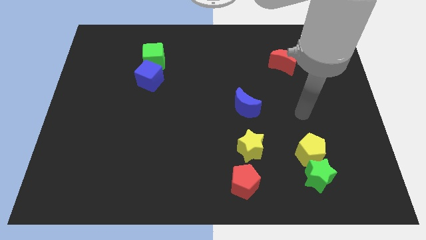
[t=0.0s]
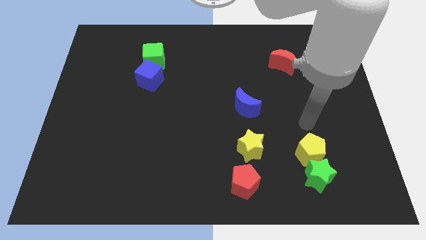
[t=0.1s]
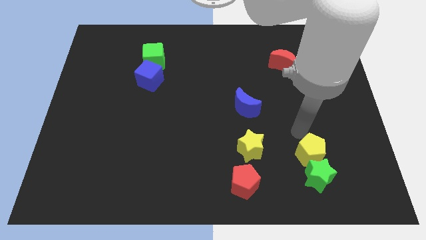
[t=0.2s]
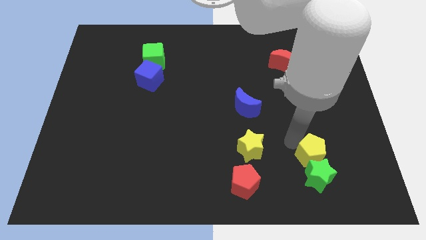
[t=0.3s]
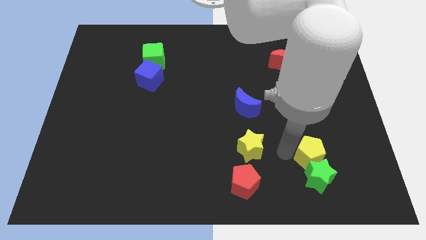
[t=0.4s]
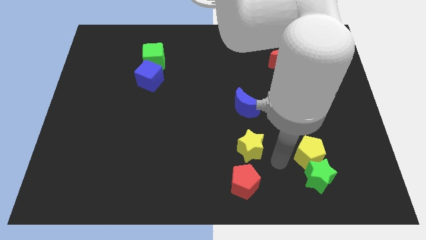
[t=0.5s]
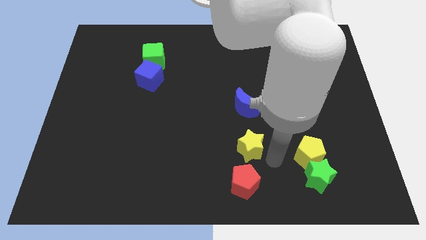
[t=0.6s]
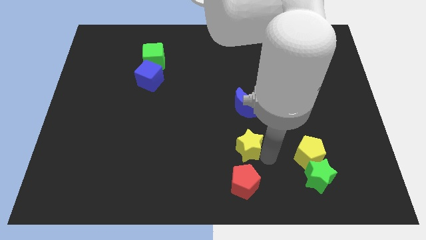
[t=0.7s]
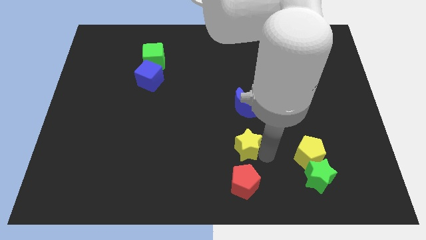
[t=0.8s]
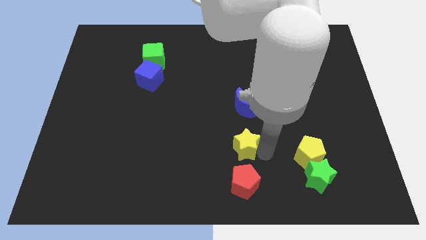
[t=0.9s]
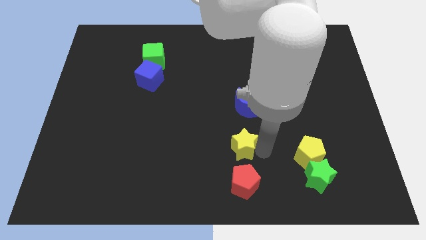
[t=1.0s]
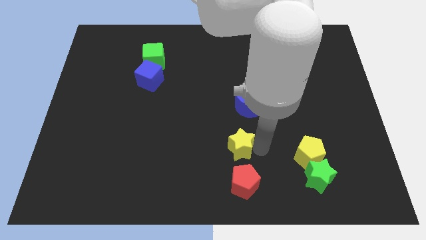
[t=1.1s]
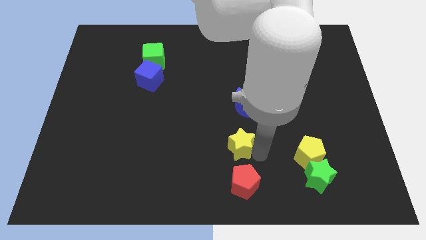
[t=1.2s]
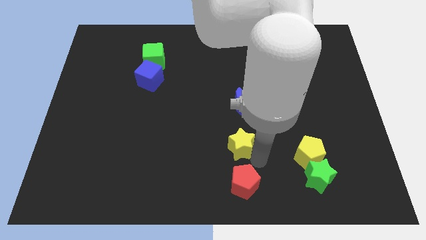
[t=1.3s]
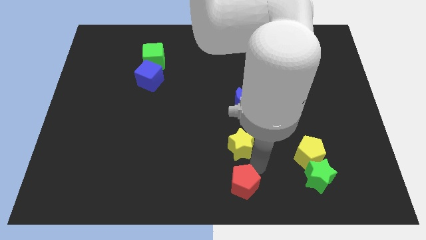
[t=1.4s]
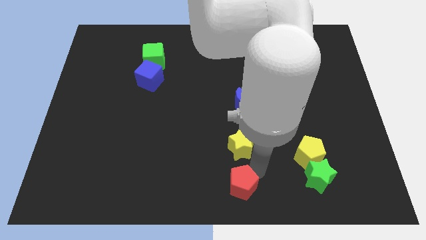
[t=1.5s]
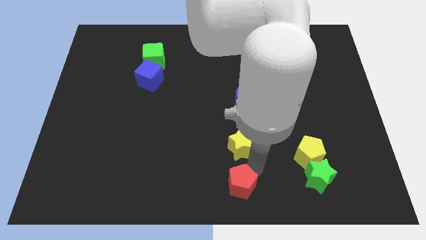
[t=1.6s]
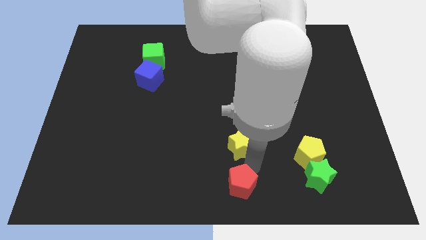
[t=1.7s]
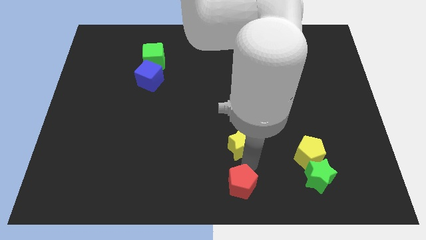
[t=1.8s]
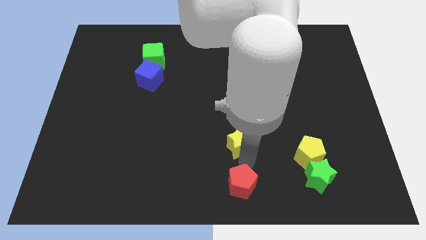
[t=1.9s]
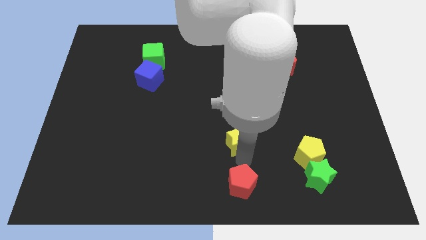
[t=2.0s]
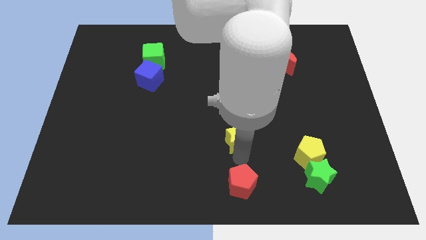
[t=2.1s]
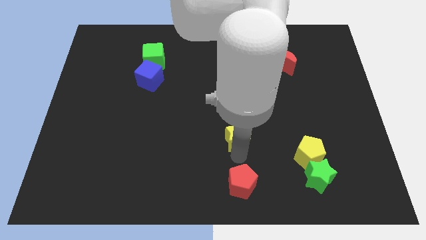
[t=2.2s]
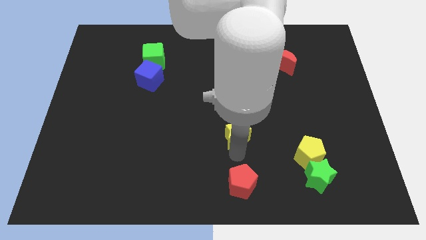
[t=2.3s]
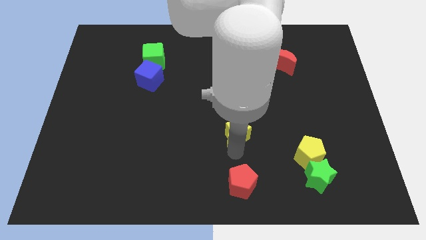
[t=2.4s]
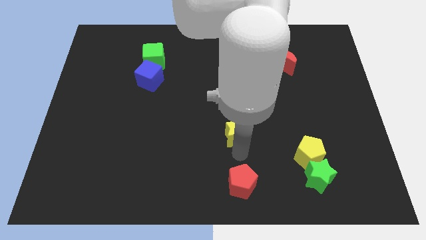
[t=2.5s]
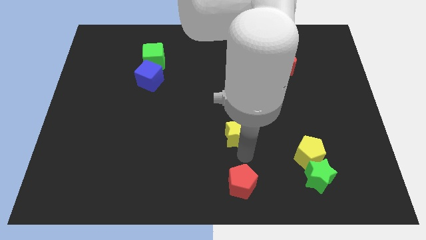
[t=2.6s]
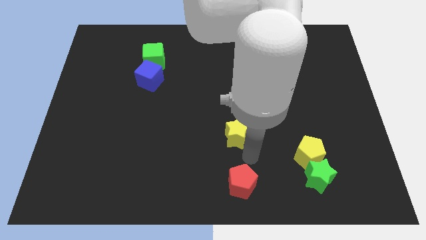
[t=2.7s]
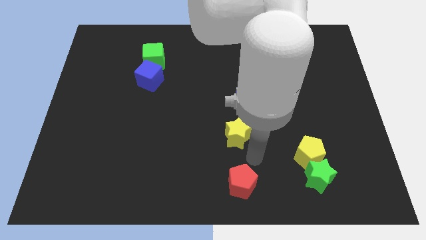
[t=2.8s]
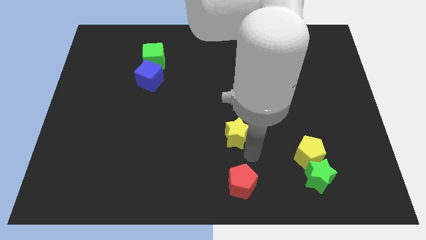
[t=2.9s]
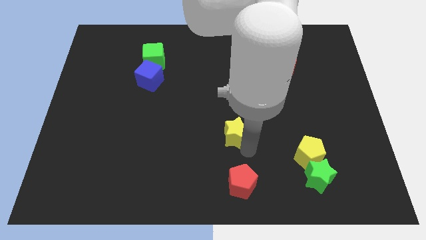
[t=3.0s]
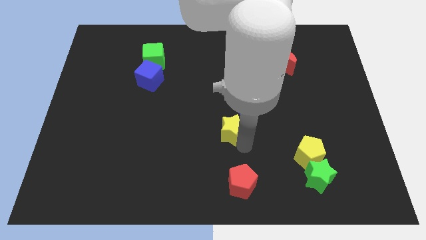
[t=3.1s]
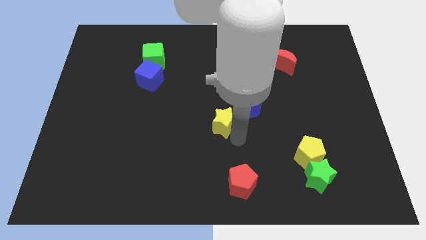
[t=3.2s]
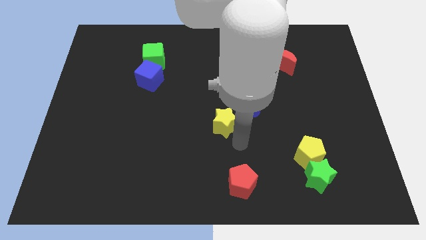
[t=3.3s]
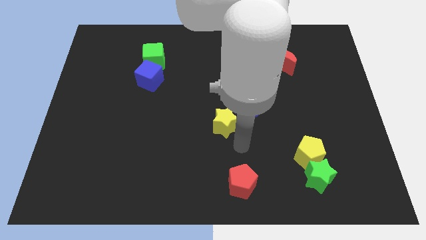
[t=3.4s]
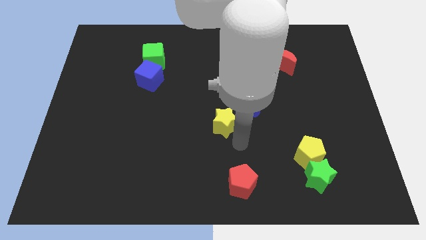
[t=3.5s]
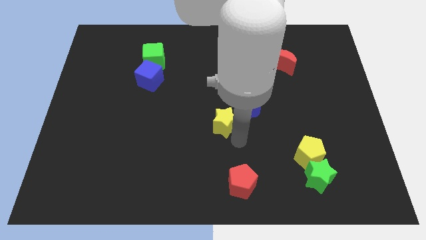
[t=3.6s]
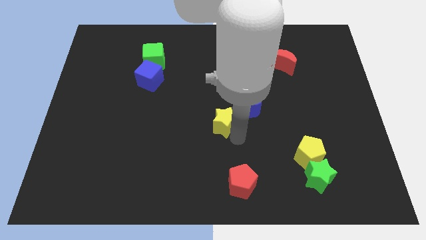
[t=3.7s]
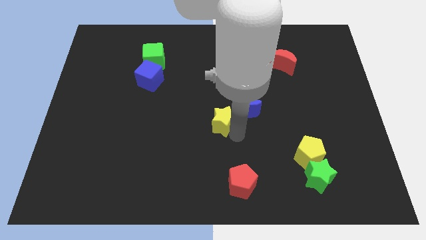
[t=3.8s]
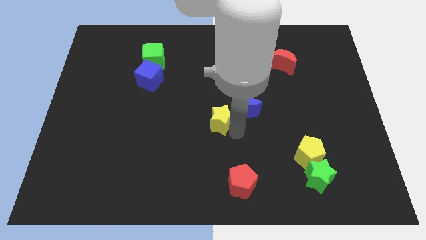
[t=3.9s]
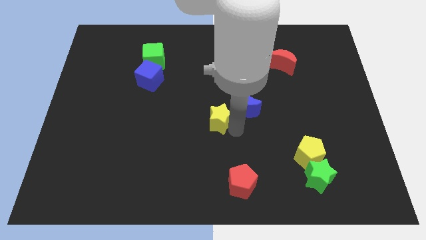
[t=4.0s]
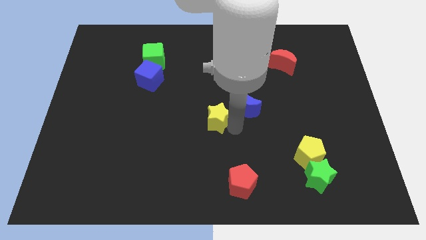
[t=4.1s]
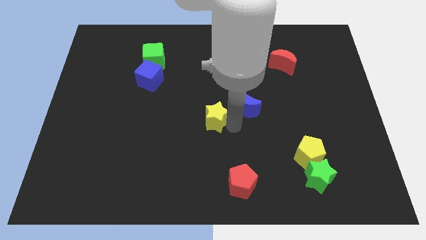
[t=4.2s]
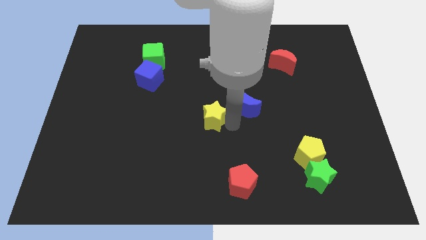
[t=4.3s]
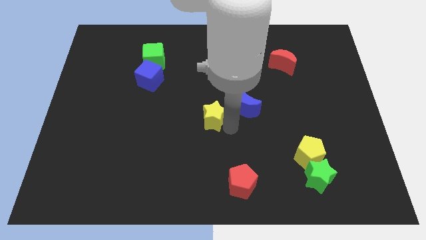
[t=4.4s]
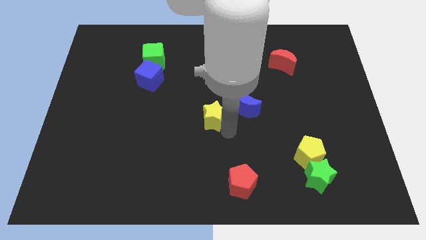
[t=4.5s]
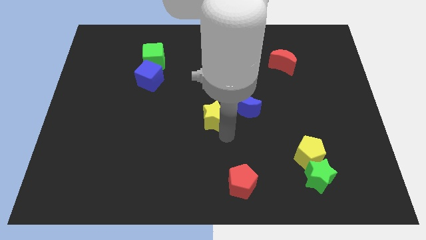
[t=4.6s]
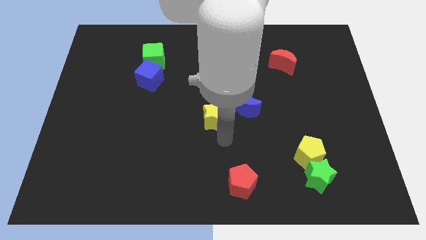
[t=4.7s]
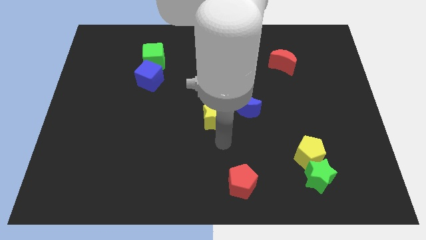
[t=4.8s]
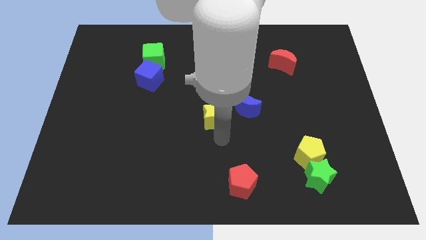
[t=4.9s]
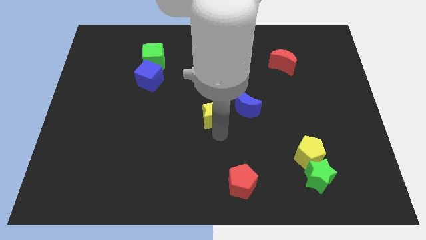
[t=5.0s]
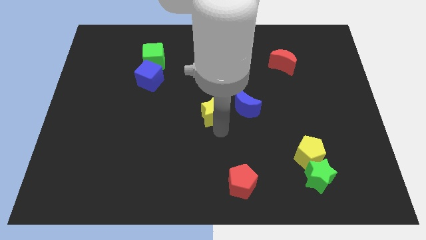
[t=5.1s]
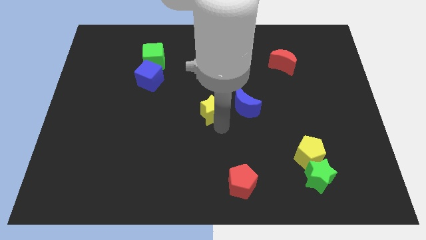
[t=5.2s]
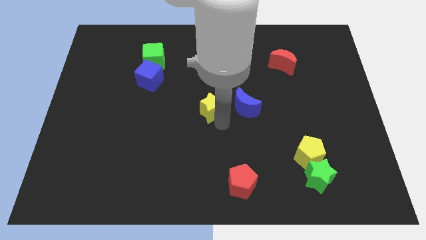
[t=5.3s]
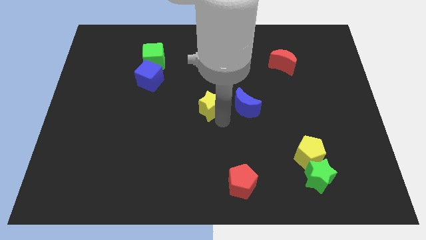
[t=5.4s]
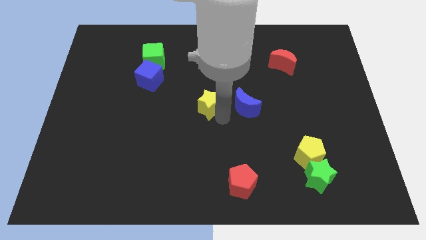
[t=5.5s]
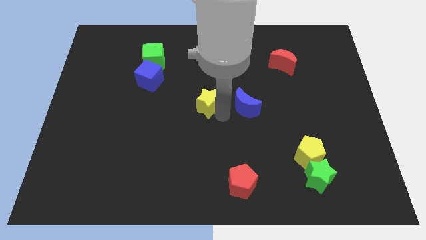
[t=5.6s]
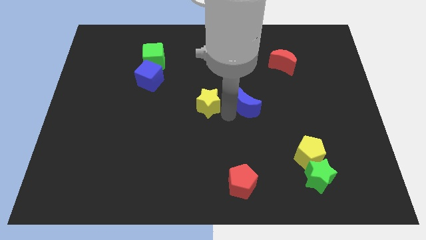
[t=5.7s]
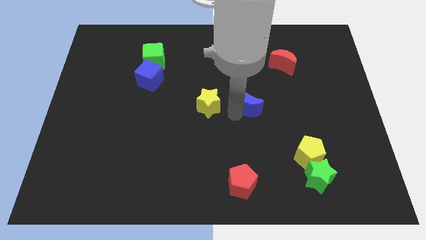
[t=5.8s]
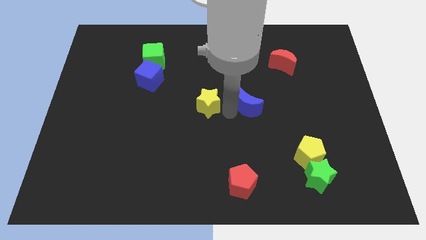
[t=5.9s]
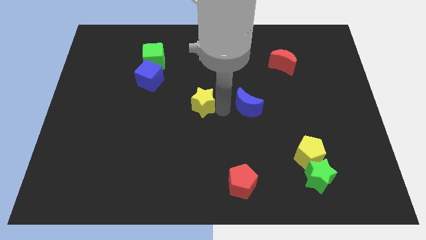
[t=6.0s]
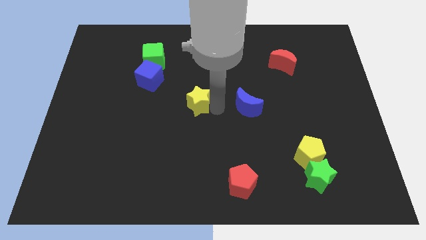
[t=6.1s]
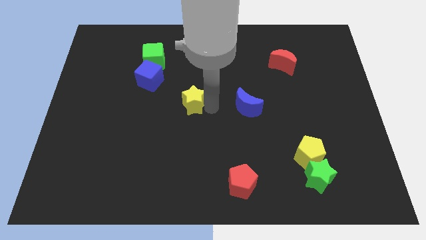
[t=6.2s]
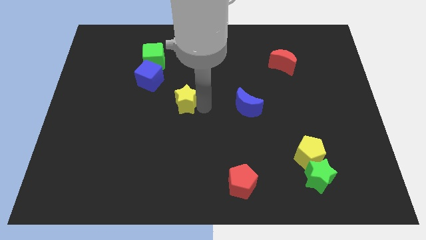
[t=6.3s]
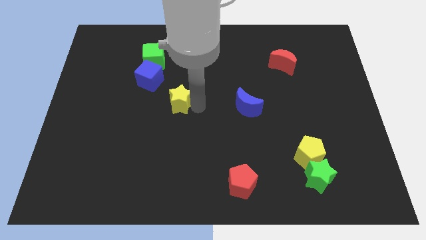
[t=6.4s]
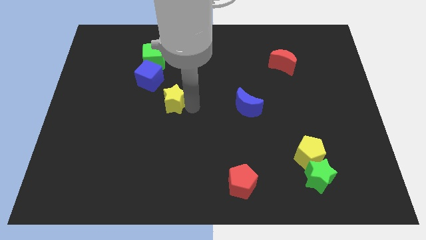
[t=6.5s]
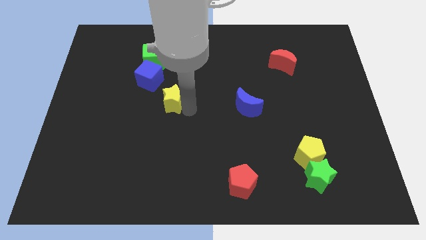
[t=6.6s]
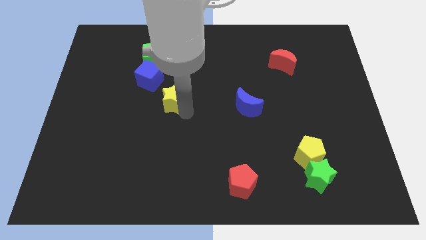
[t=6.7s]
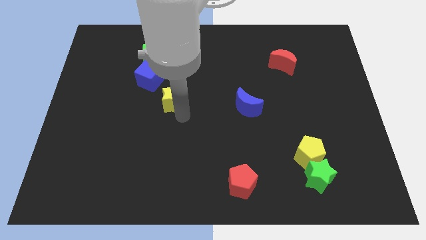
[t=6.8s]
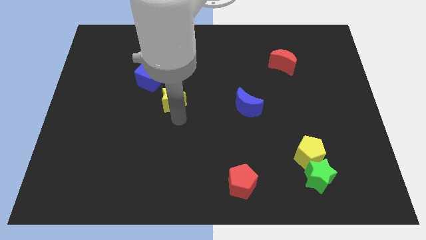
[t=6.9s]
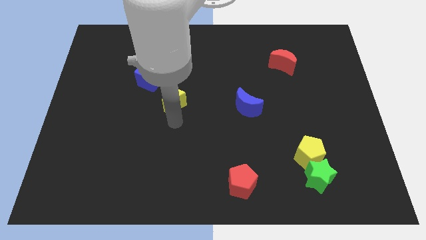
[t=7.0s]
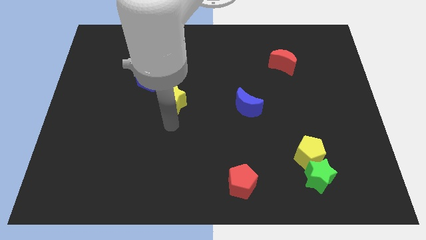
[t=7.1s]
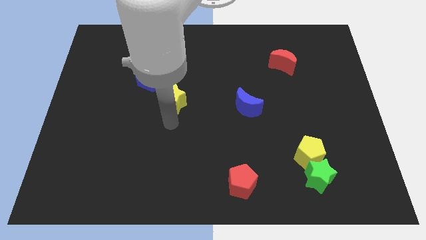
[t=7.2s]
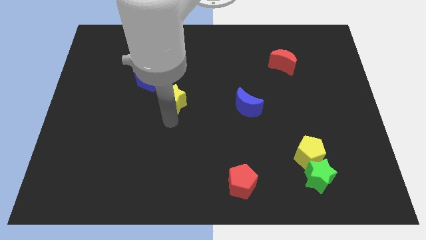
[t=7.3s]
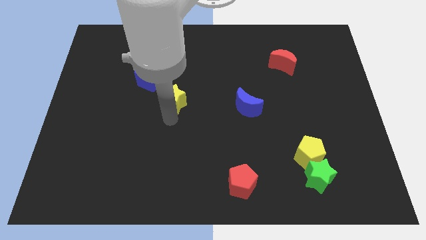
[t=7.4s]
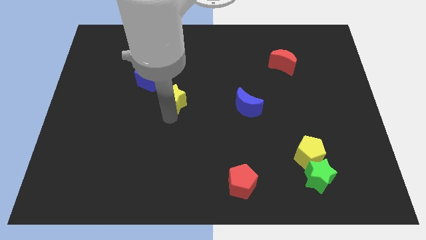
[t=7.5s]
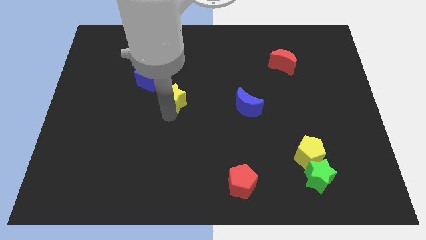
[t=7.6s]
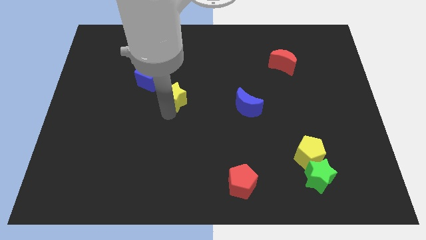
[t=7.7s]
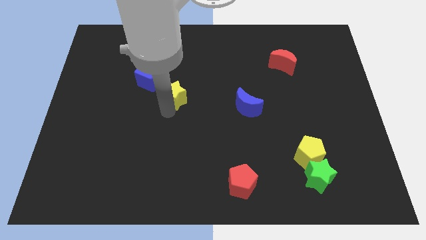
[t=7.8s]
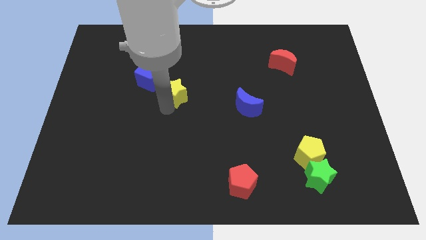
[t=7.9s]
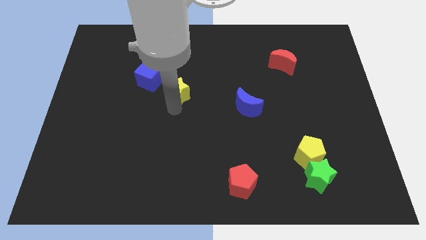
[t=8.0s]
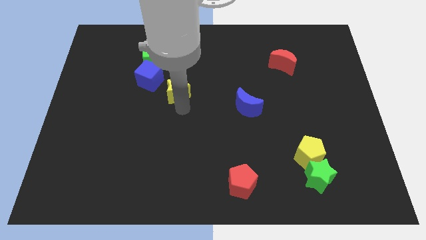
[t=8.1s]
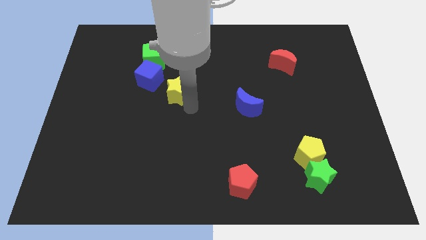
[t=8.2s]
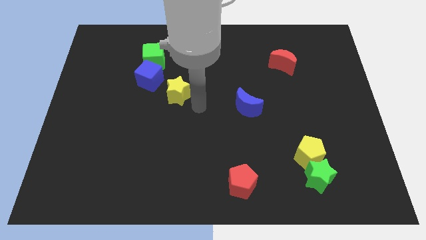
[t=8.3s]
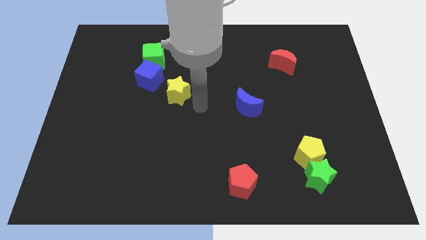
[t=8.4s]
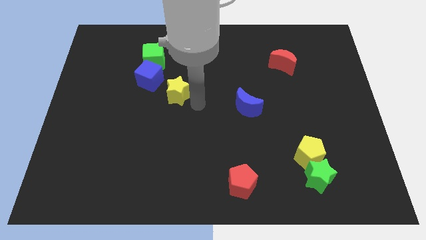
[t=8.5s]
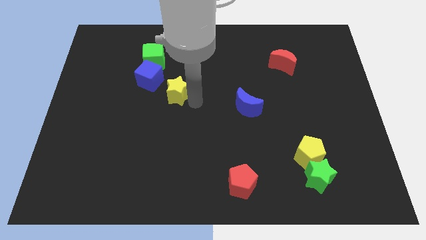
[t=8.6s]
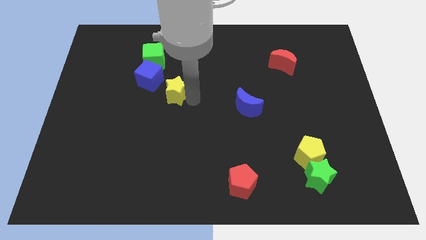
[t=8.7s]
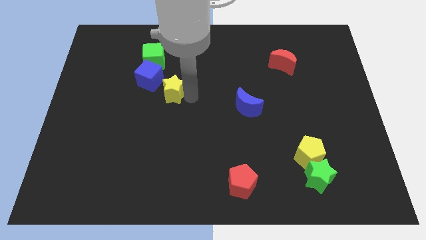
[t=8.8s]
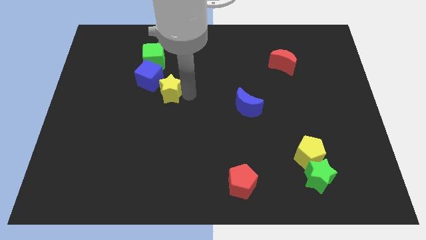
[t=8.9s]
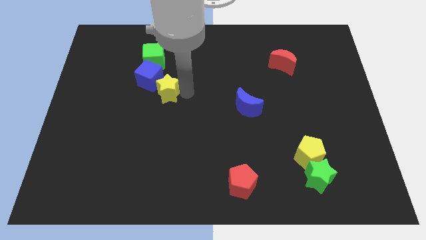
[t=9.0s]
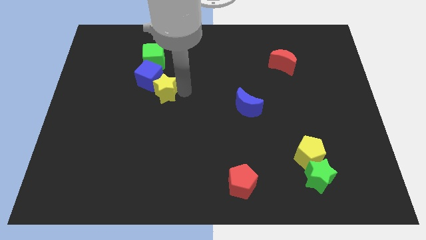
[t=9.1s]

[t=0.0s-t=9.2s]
slide the yellow star close to the blue cube
